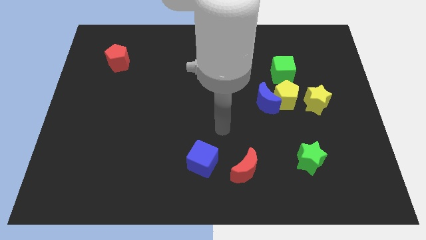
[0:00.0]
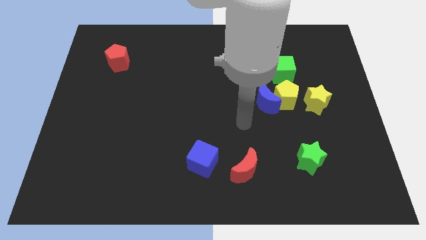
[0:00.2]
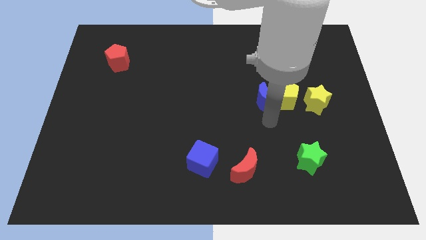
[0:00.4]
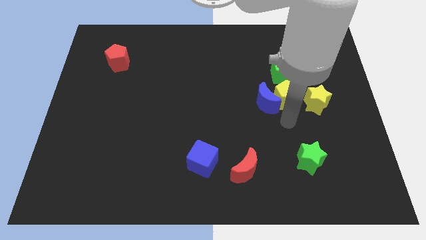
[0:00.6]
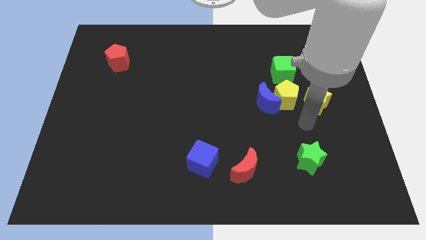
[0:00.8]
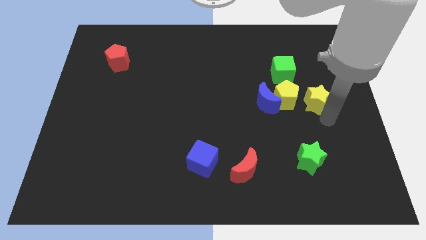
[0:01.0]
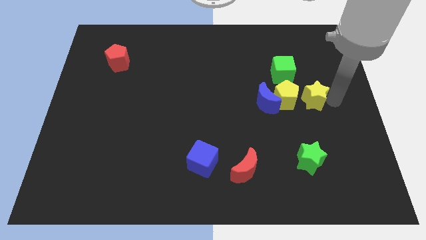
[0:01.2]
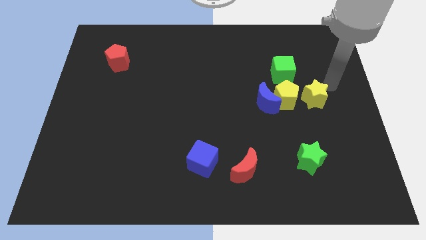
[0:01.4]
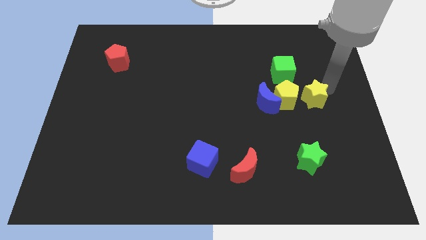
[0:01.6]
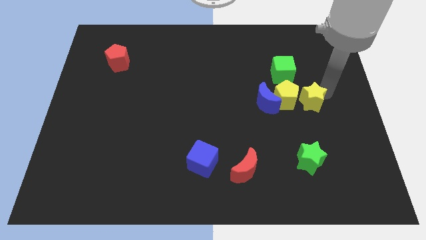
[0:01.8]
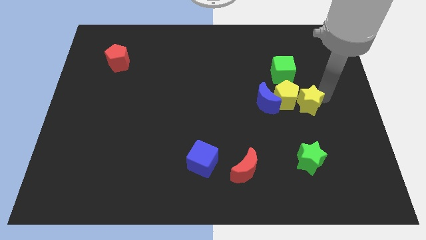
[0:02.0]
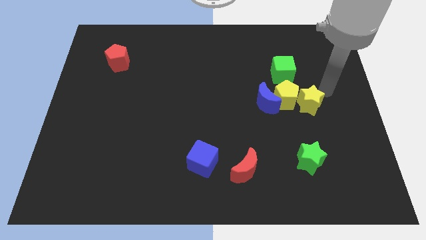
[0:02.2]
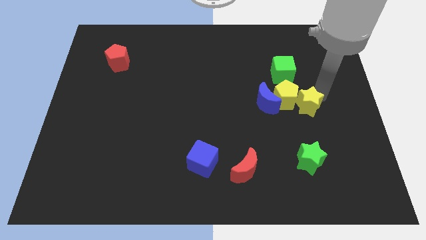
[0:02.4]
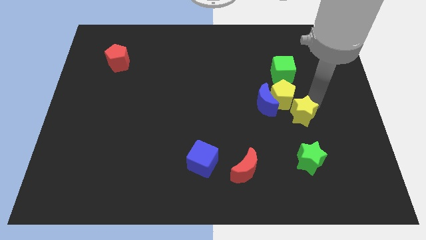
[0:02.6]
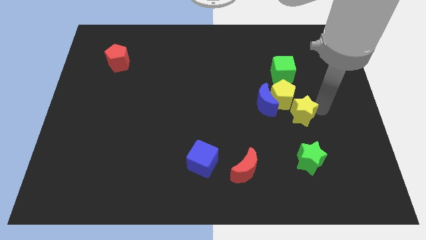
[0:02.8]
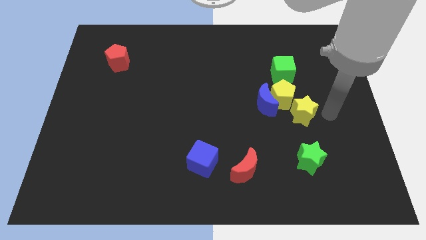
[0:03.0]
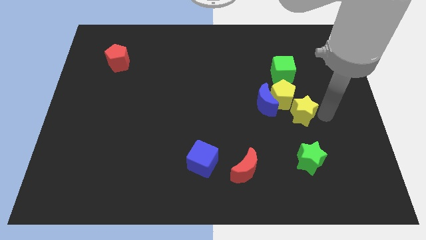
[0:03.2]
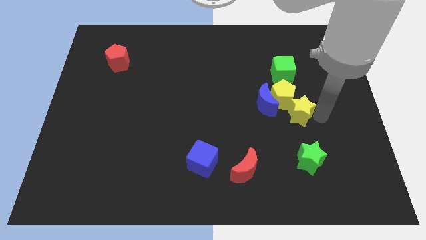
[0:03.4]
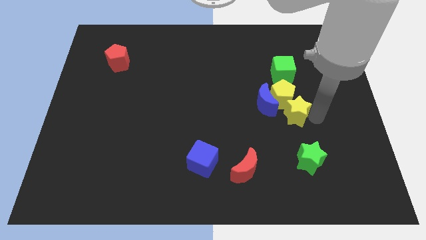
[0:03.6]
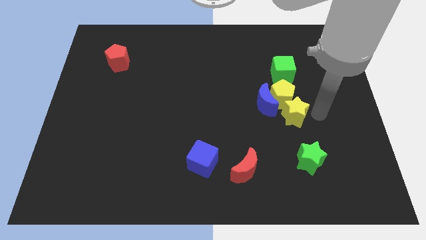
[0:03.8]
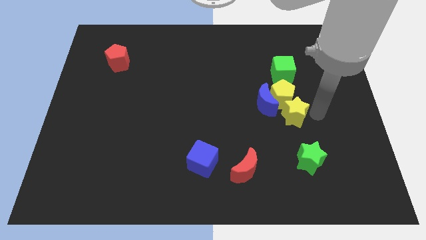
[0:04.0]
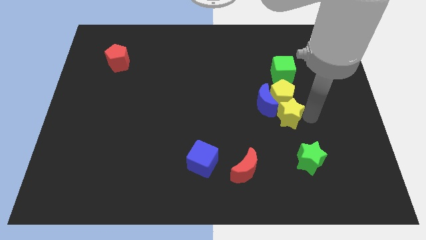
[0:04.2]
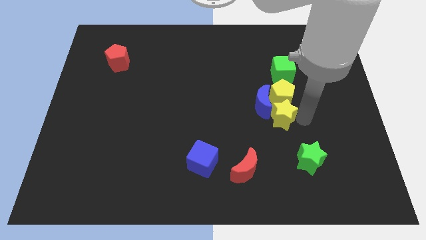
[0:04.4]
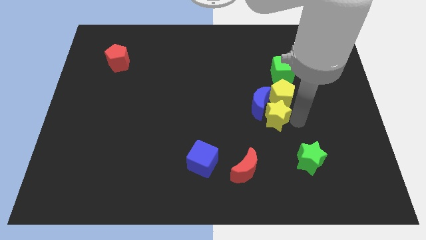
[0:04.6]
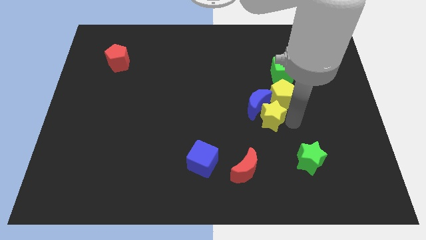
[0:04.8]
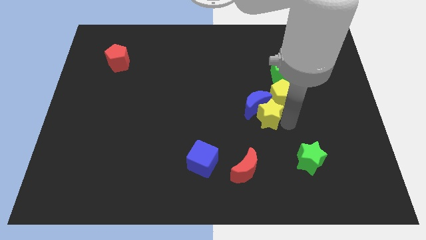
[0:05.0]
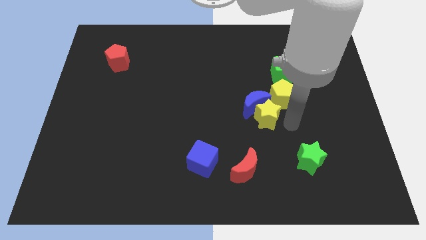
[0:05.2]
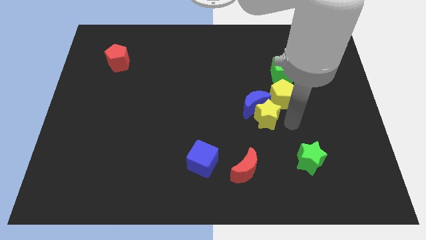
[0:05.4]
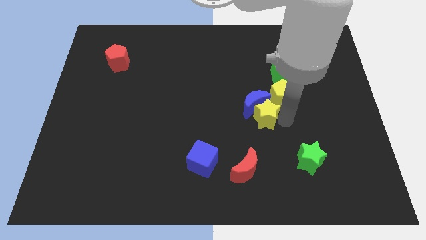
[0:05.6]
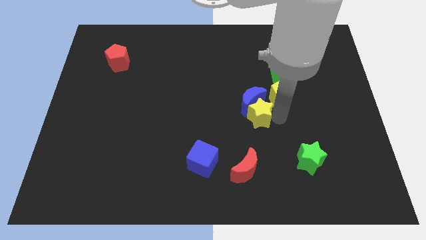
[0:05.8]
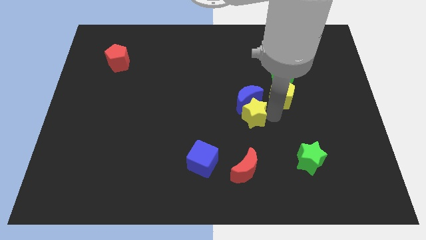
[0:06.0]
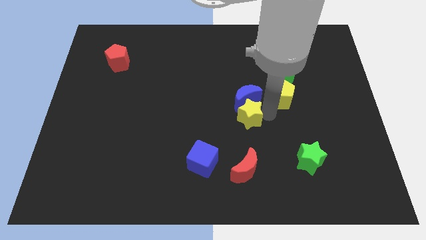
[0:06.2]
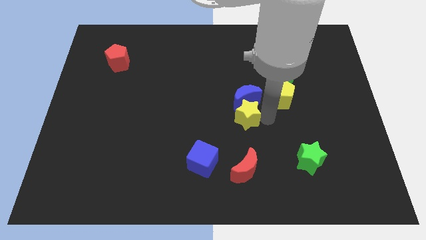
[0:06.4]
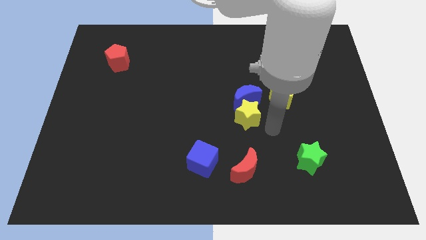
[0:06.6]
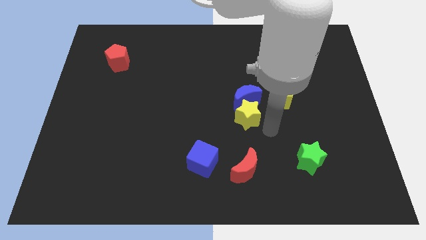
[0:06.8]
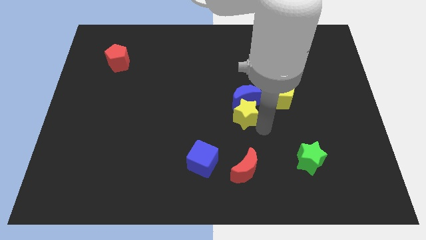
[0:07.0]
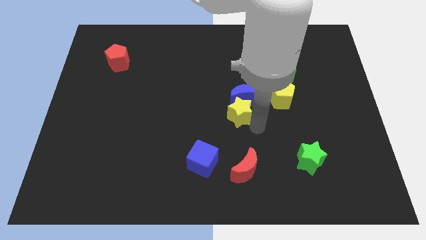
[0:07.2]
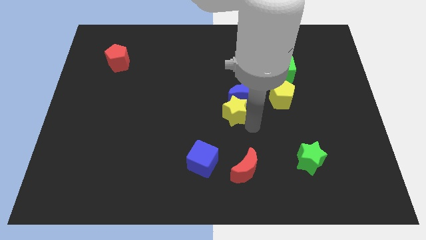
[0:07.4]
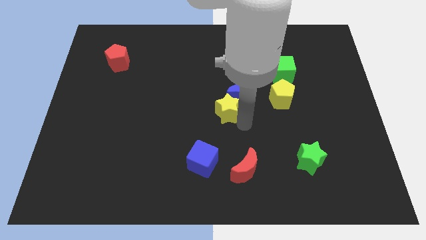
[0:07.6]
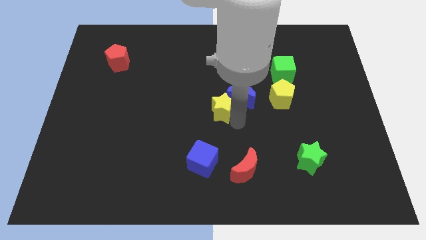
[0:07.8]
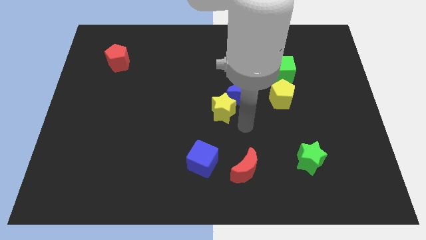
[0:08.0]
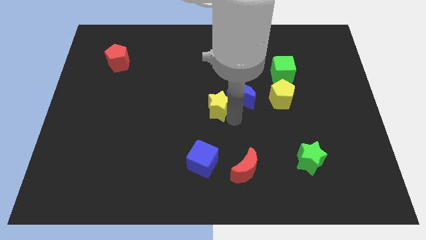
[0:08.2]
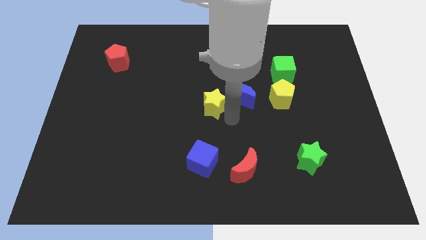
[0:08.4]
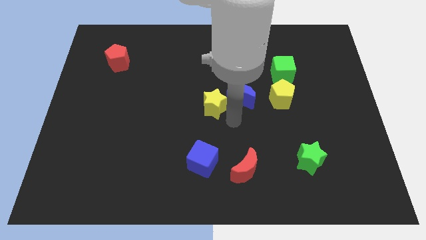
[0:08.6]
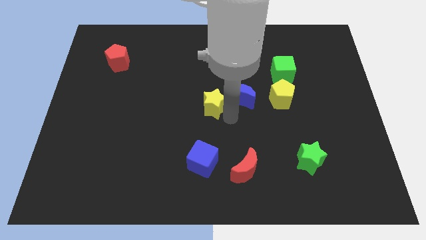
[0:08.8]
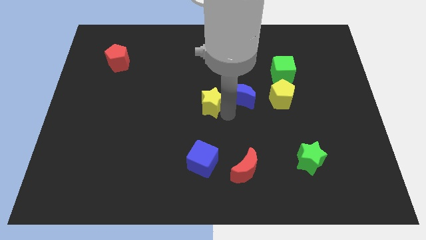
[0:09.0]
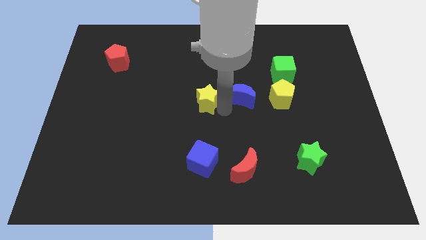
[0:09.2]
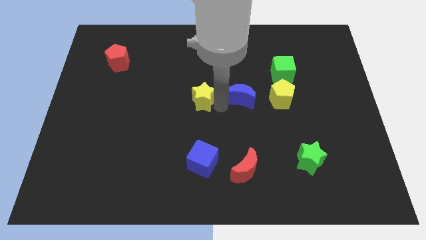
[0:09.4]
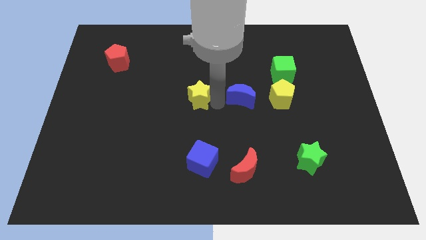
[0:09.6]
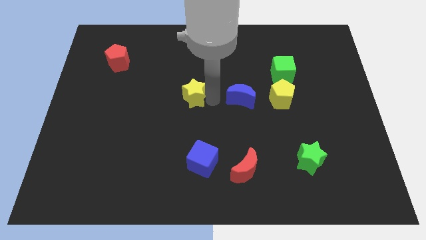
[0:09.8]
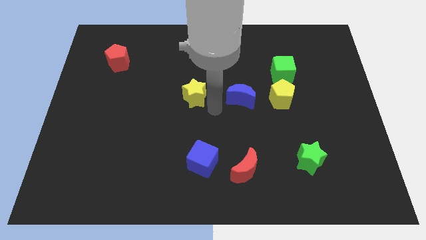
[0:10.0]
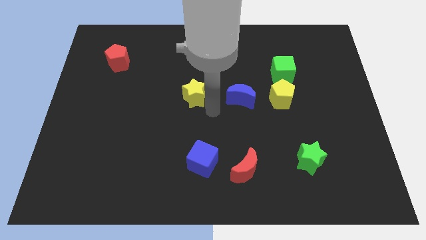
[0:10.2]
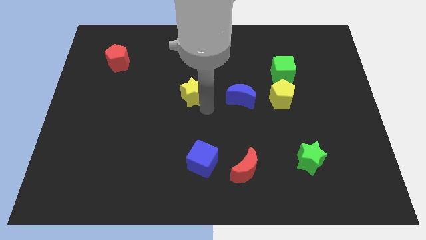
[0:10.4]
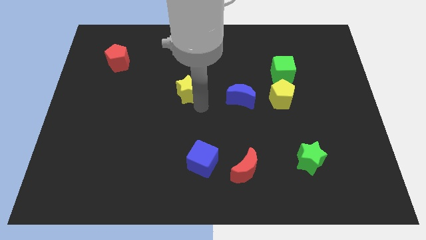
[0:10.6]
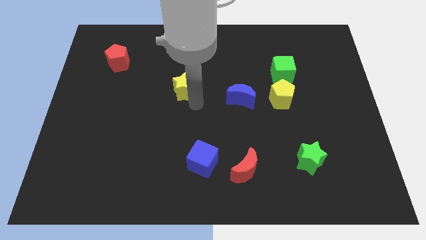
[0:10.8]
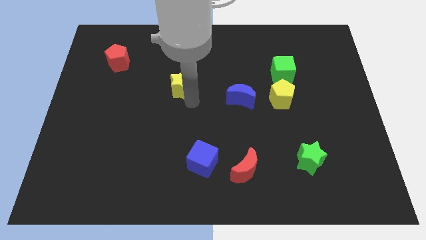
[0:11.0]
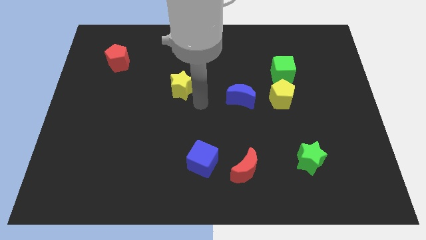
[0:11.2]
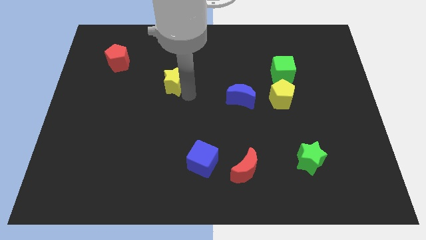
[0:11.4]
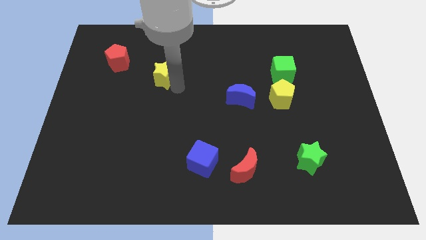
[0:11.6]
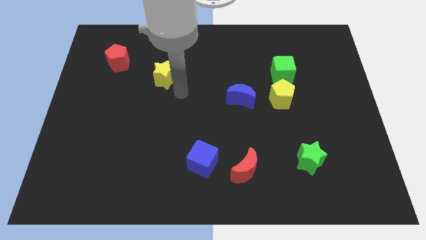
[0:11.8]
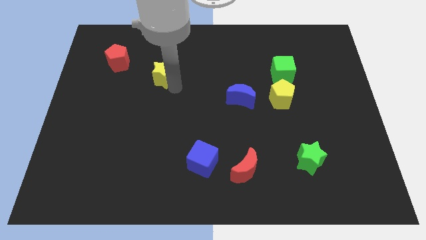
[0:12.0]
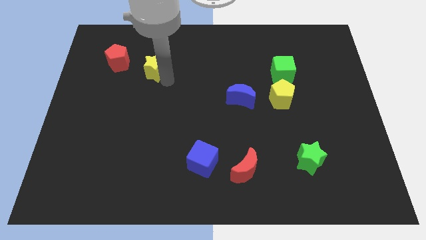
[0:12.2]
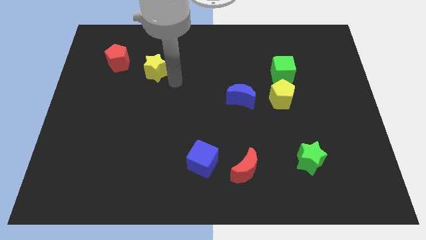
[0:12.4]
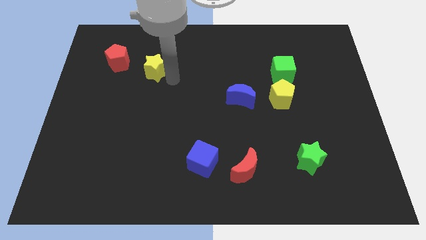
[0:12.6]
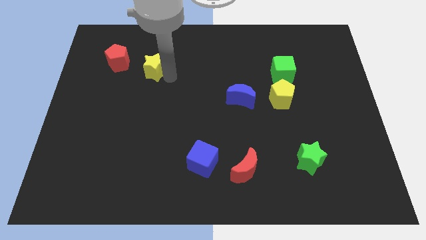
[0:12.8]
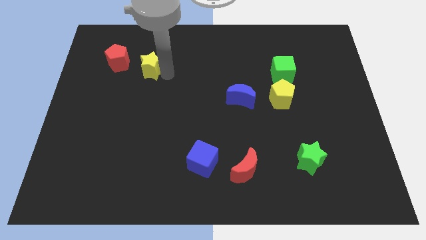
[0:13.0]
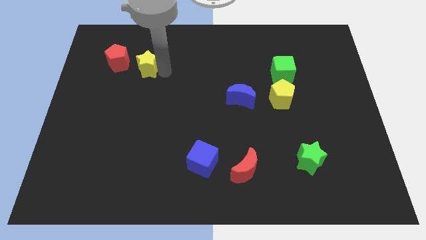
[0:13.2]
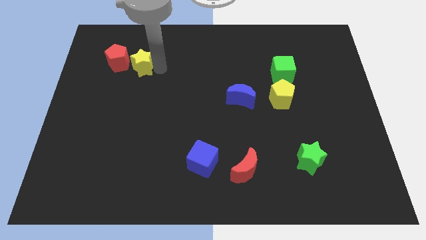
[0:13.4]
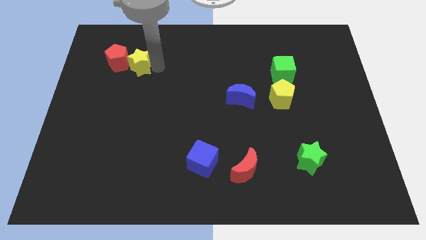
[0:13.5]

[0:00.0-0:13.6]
slide the yellow star to the red pentagon

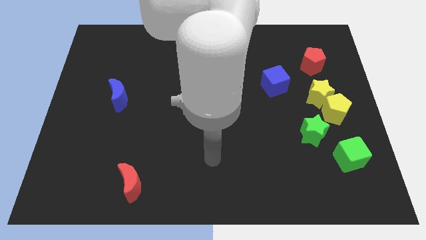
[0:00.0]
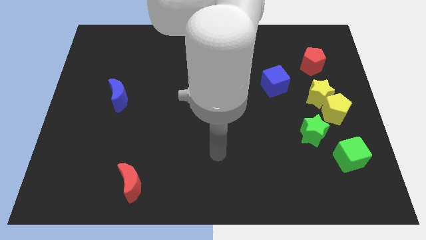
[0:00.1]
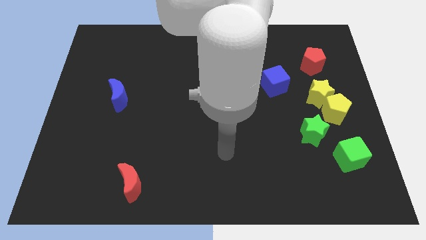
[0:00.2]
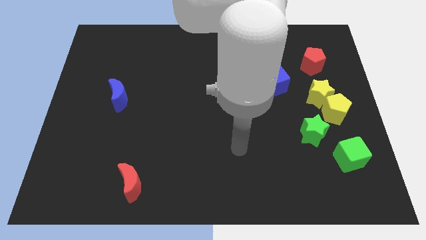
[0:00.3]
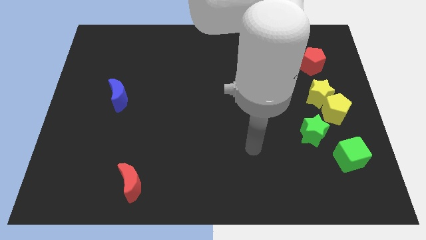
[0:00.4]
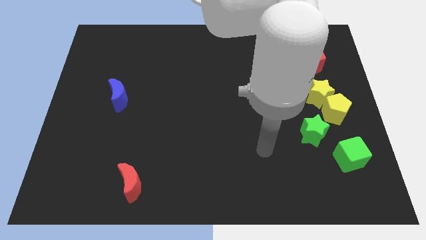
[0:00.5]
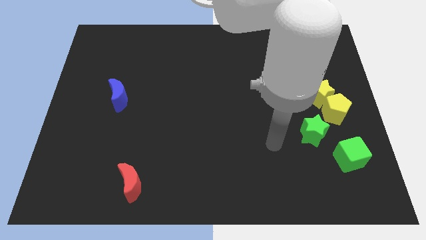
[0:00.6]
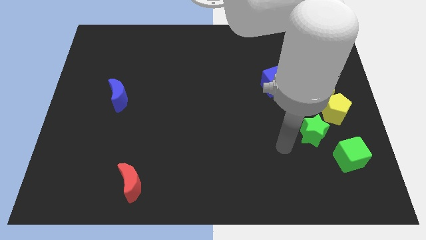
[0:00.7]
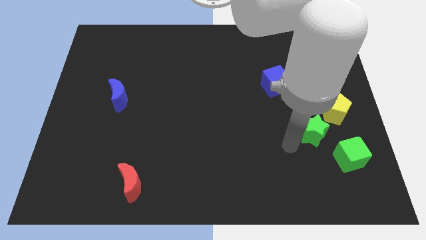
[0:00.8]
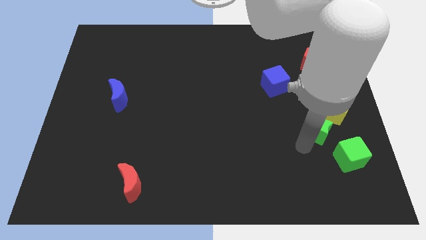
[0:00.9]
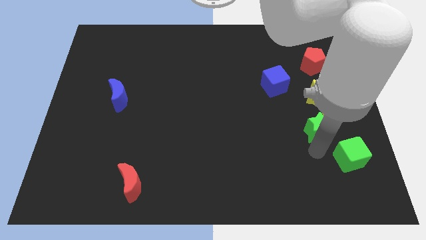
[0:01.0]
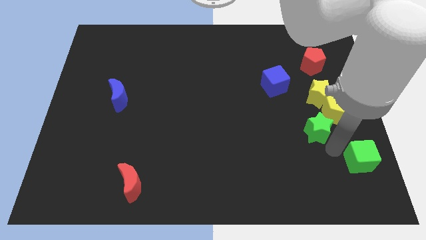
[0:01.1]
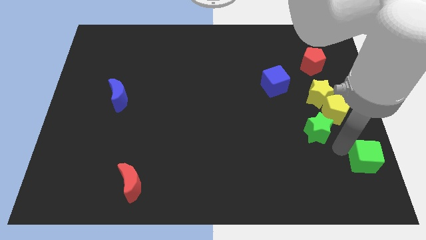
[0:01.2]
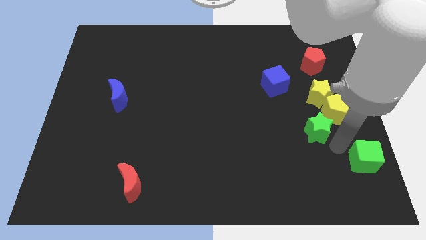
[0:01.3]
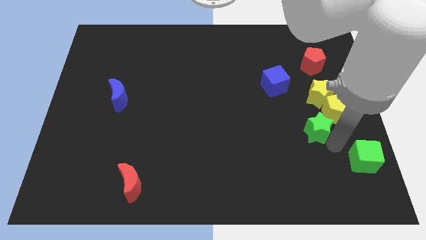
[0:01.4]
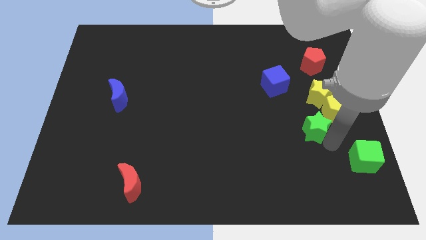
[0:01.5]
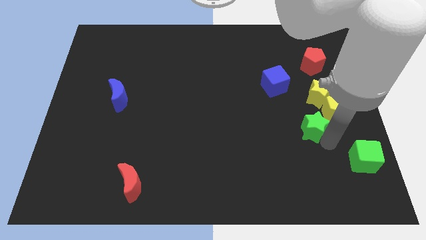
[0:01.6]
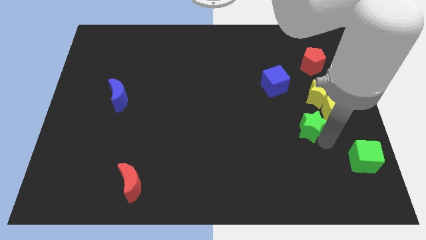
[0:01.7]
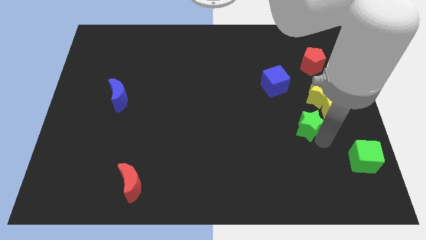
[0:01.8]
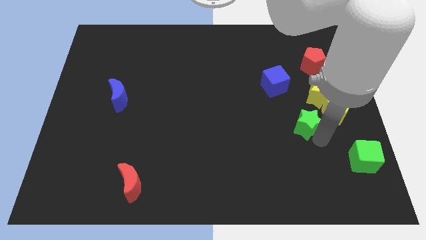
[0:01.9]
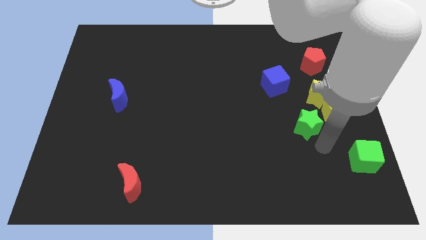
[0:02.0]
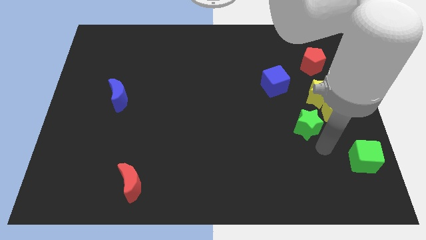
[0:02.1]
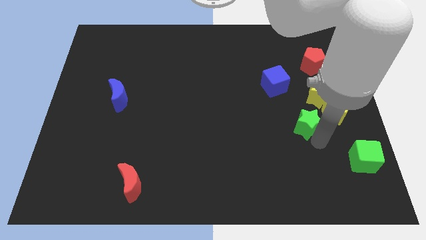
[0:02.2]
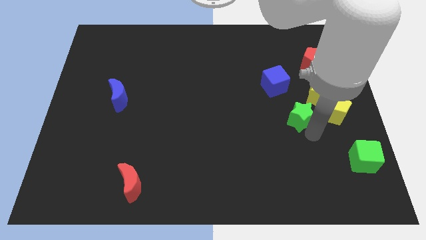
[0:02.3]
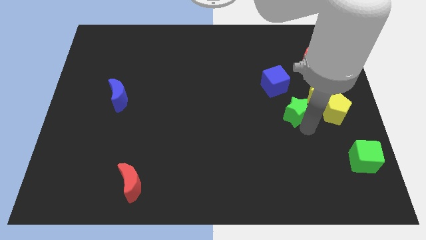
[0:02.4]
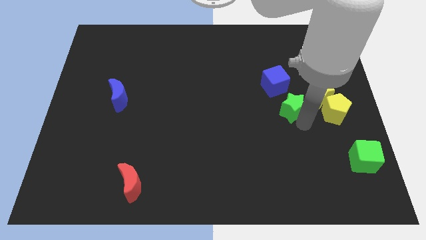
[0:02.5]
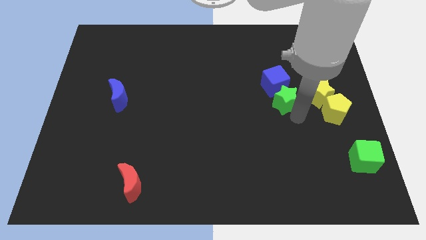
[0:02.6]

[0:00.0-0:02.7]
put the green star towards the blue cube
